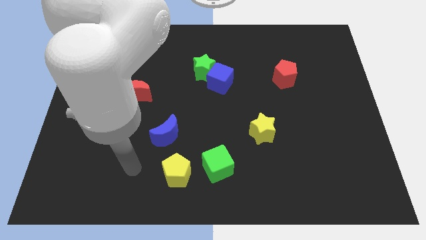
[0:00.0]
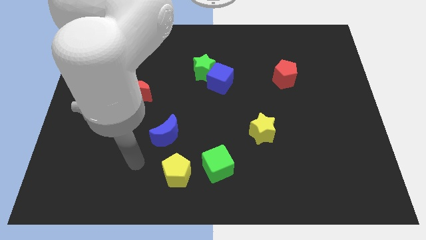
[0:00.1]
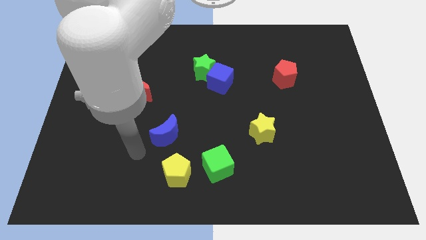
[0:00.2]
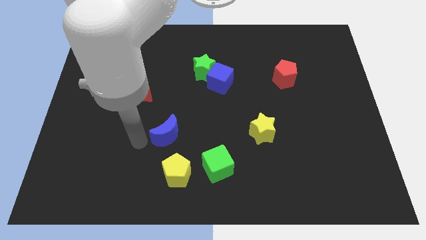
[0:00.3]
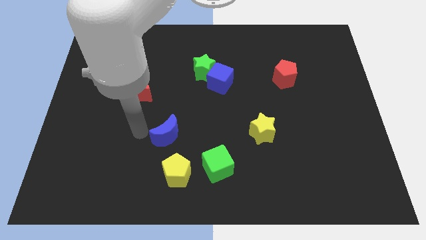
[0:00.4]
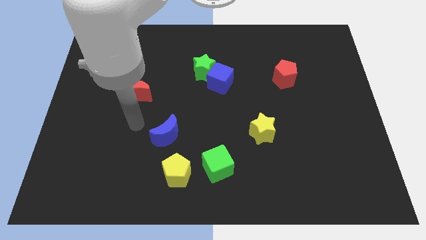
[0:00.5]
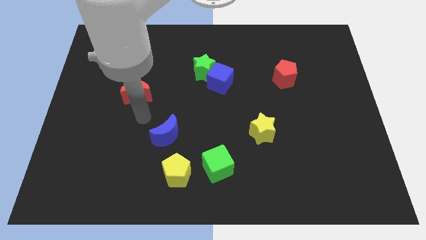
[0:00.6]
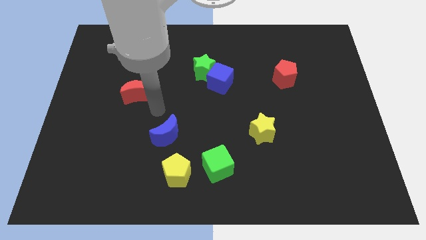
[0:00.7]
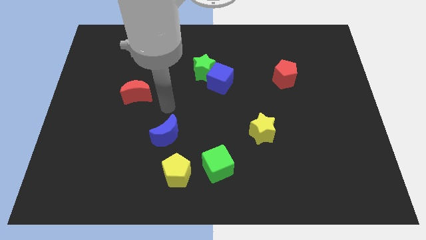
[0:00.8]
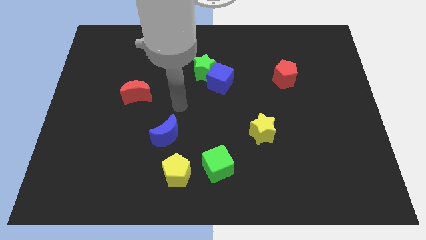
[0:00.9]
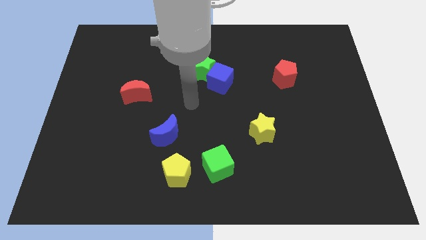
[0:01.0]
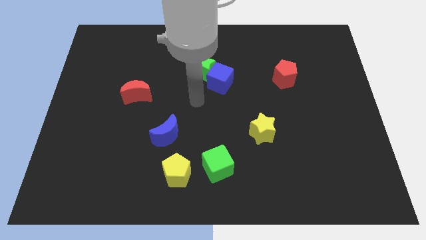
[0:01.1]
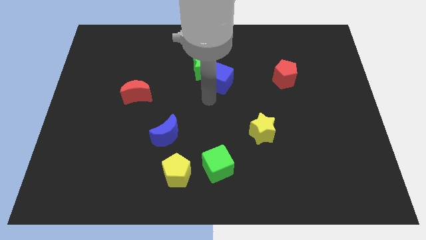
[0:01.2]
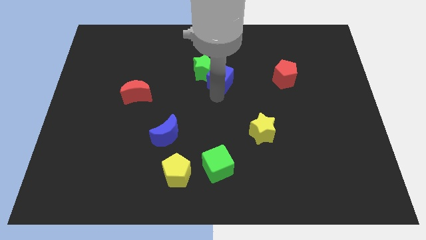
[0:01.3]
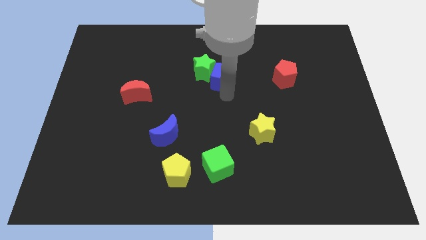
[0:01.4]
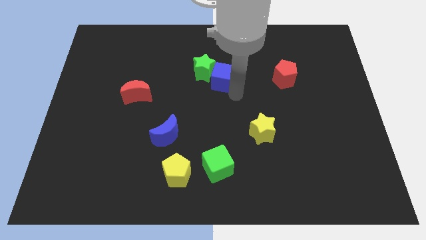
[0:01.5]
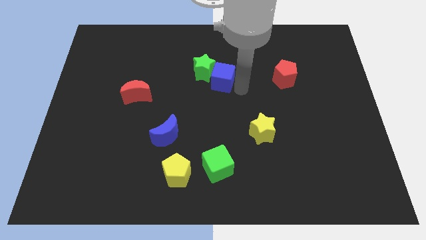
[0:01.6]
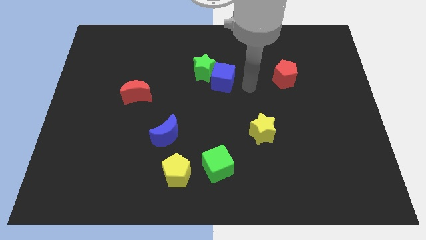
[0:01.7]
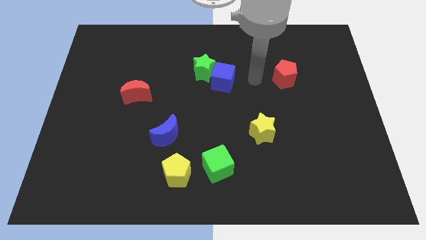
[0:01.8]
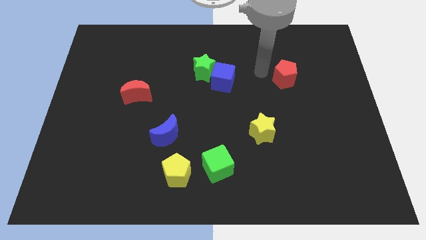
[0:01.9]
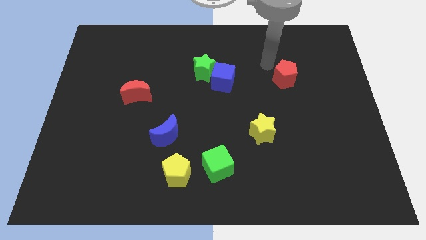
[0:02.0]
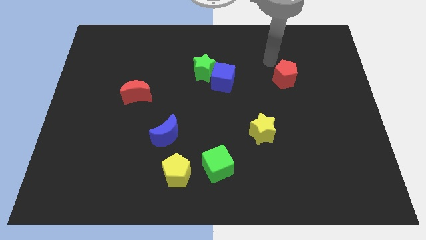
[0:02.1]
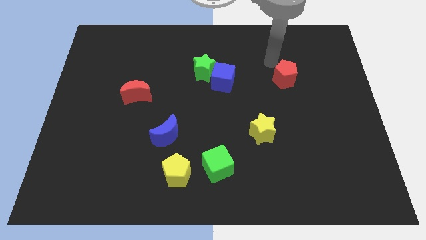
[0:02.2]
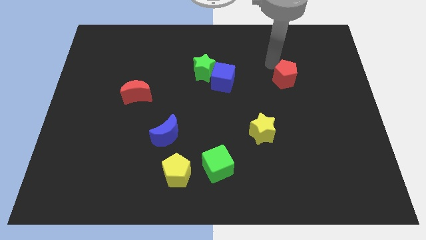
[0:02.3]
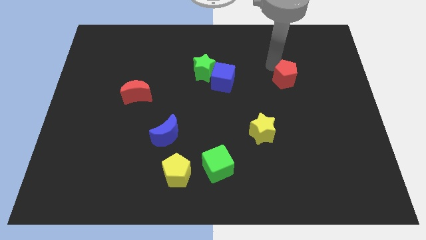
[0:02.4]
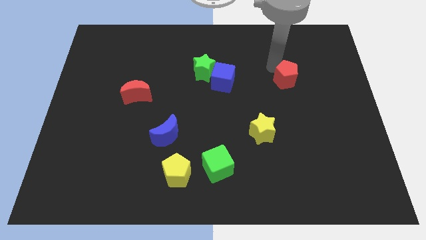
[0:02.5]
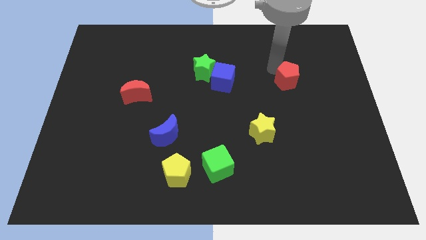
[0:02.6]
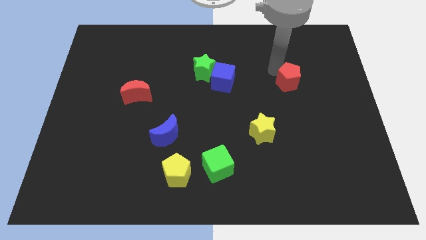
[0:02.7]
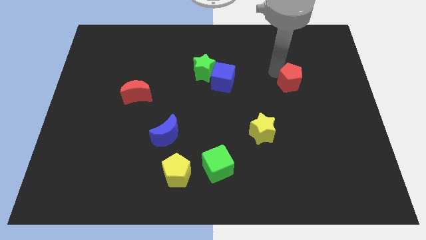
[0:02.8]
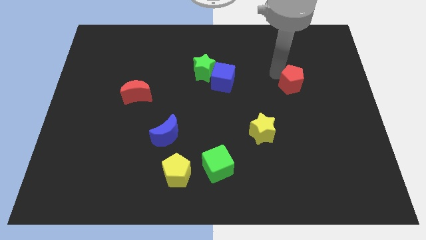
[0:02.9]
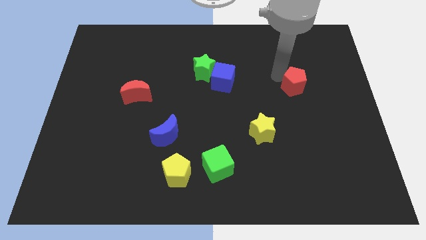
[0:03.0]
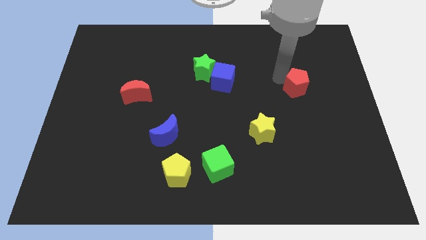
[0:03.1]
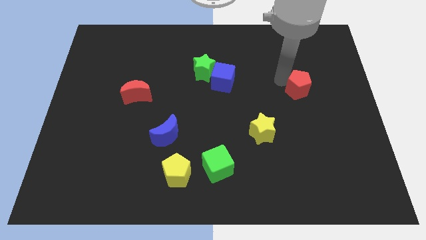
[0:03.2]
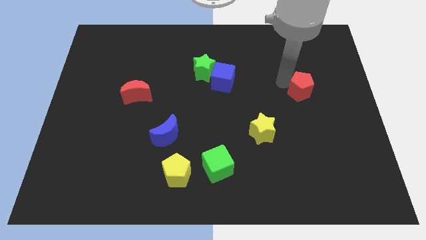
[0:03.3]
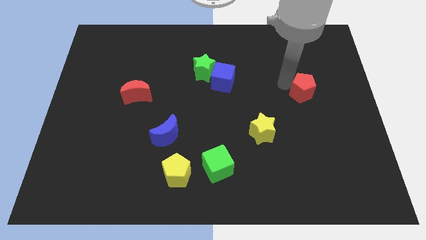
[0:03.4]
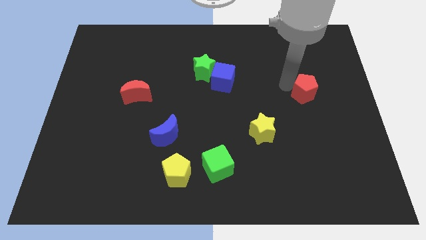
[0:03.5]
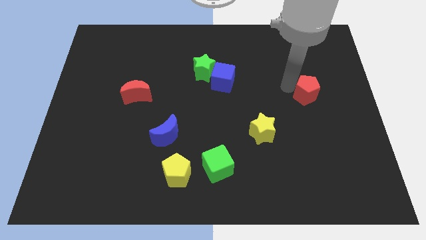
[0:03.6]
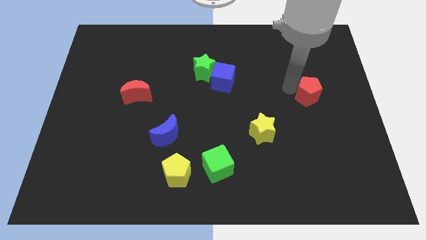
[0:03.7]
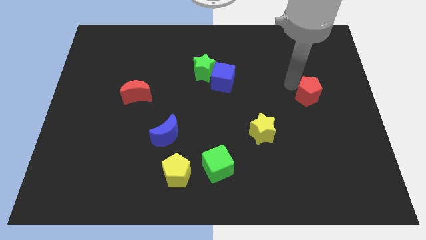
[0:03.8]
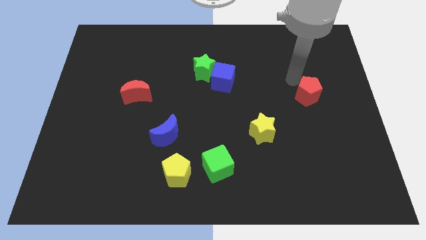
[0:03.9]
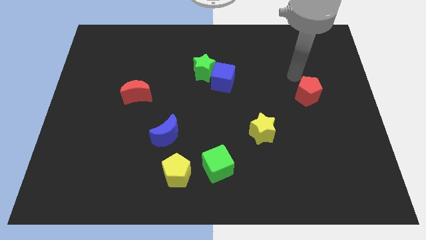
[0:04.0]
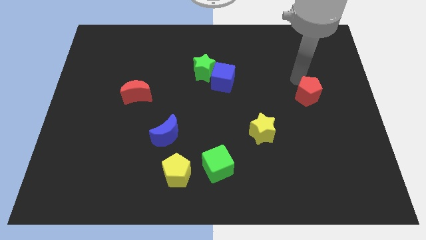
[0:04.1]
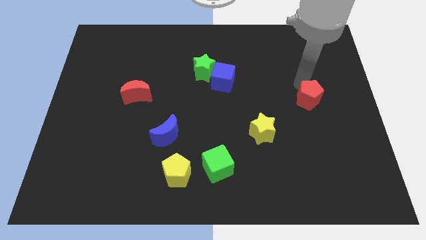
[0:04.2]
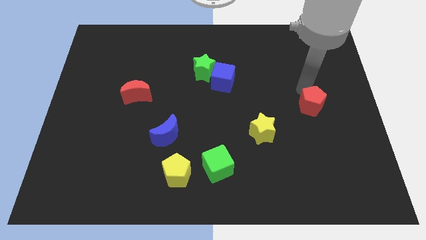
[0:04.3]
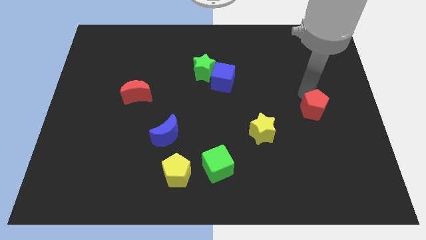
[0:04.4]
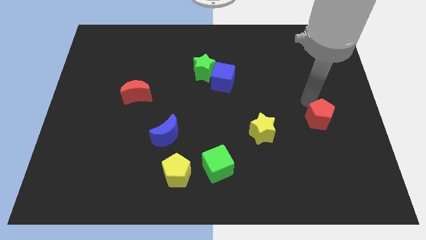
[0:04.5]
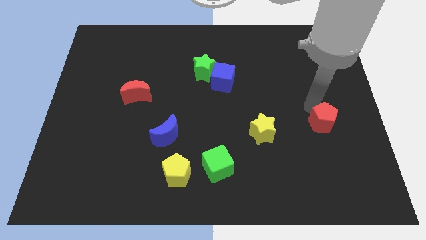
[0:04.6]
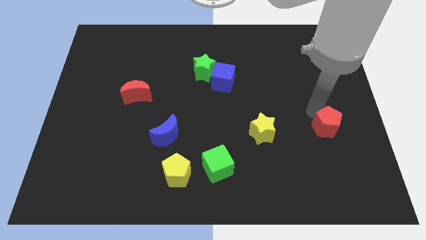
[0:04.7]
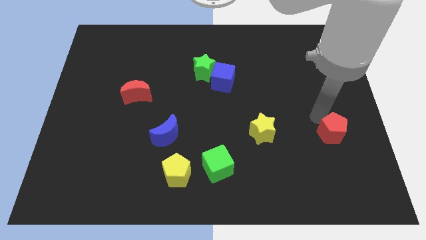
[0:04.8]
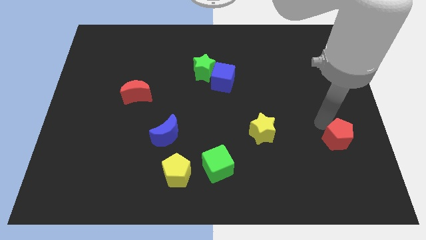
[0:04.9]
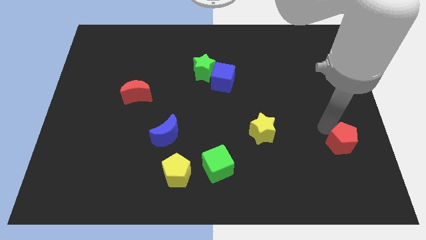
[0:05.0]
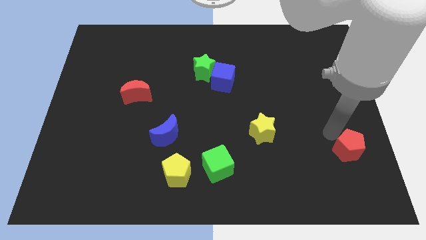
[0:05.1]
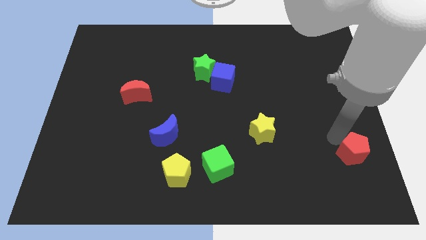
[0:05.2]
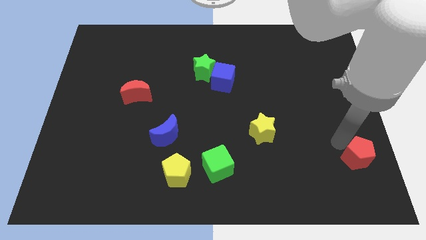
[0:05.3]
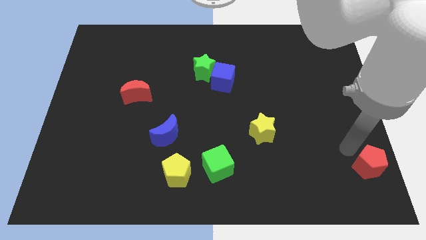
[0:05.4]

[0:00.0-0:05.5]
push the red pentagon to the lower right corner
